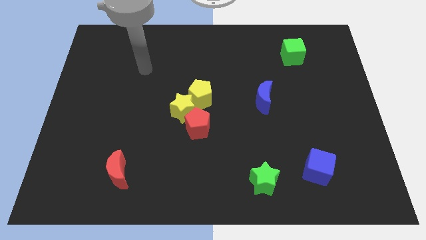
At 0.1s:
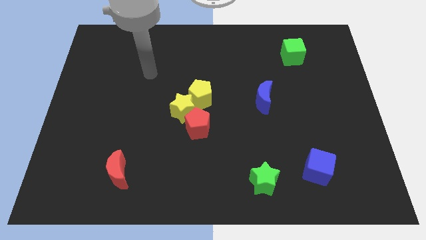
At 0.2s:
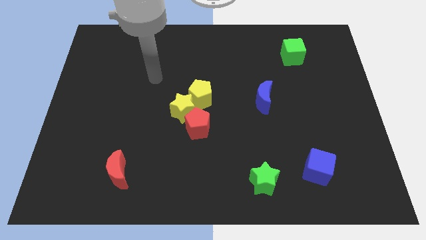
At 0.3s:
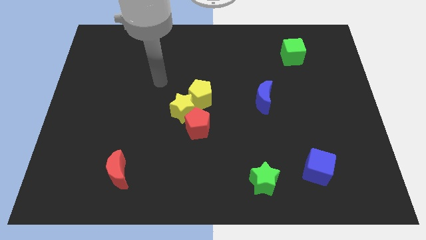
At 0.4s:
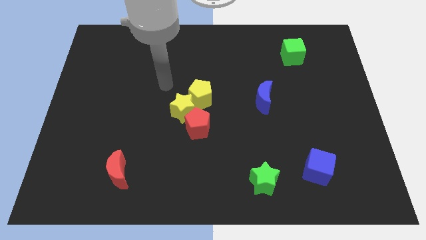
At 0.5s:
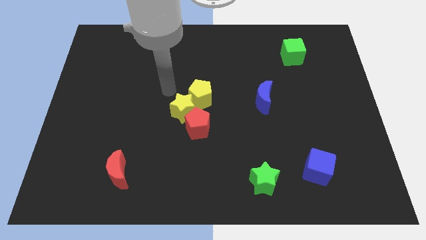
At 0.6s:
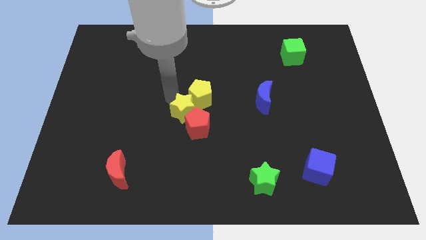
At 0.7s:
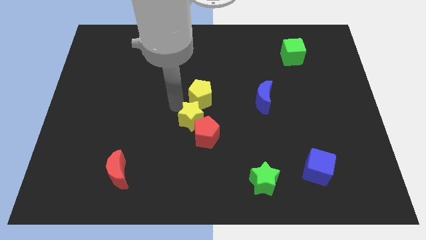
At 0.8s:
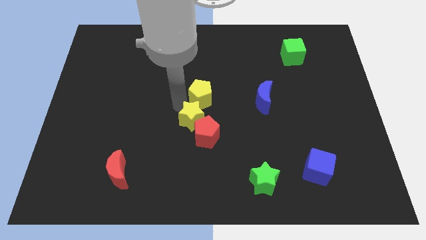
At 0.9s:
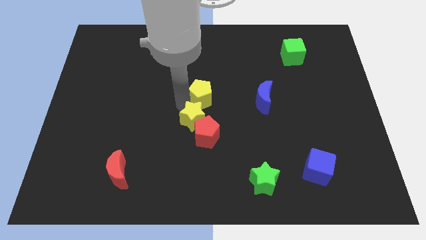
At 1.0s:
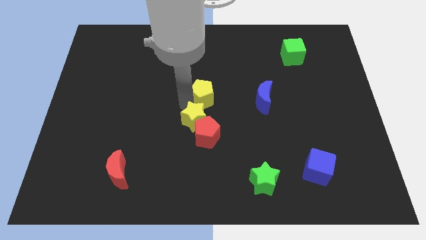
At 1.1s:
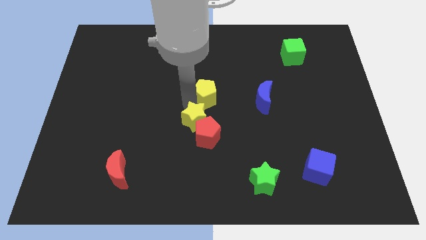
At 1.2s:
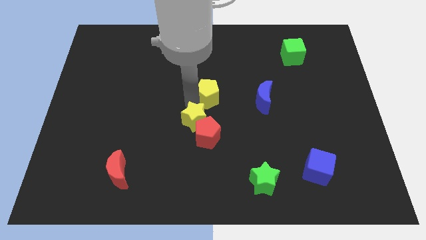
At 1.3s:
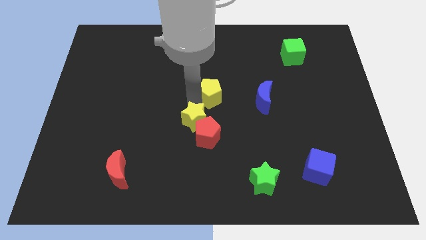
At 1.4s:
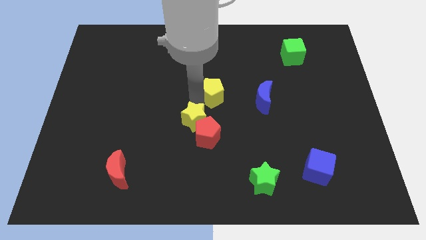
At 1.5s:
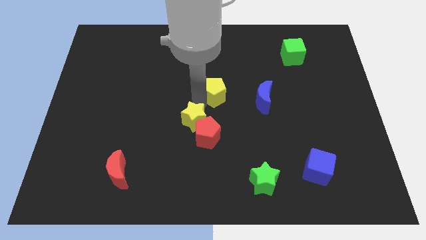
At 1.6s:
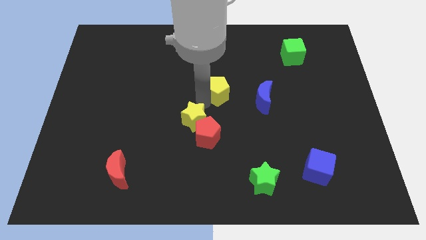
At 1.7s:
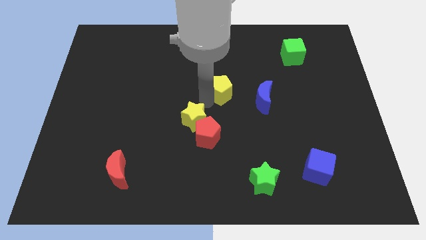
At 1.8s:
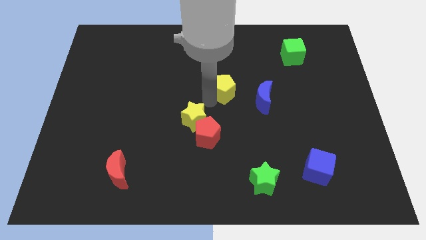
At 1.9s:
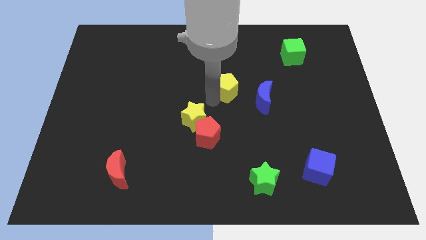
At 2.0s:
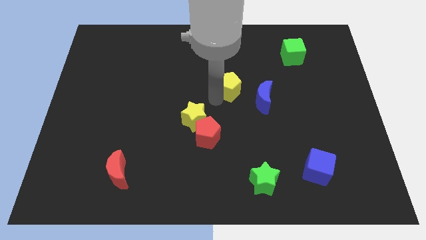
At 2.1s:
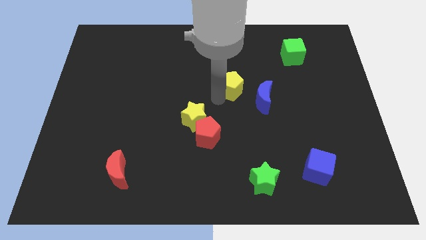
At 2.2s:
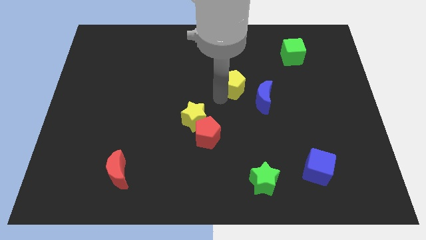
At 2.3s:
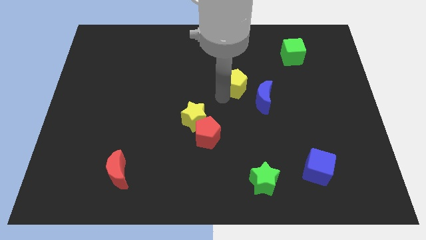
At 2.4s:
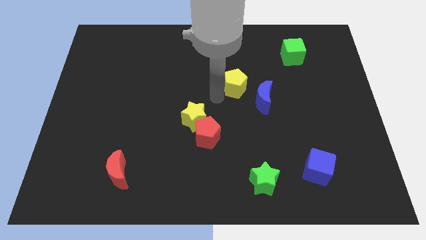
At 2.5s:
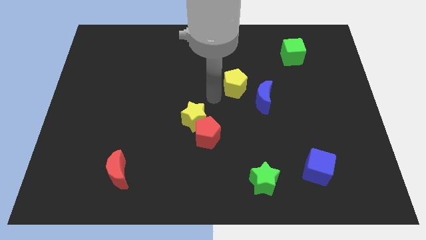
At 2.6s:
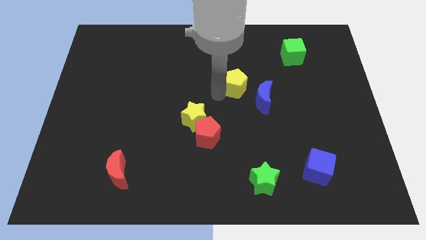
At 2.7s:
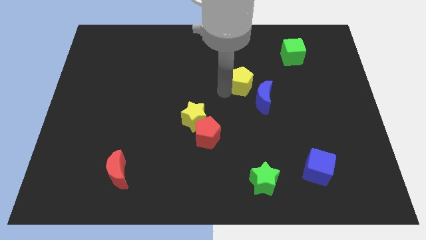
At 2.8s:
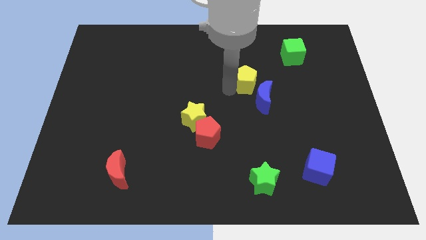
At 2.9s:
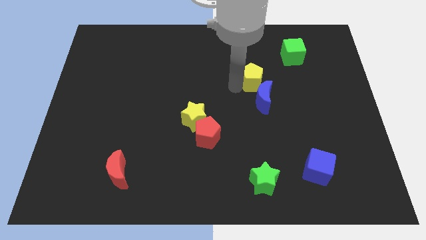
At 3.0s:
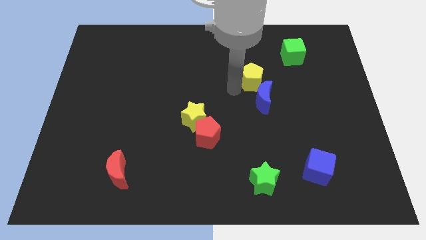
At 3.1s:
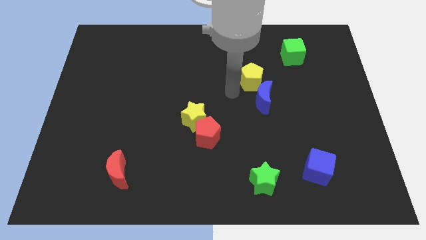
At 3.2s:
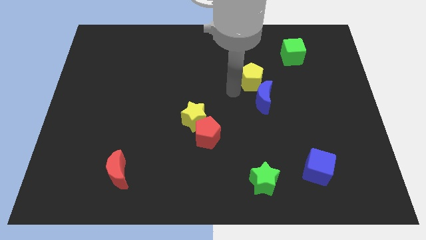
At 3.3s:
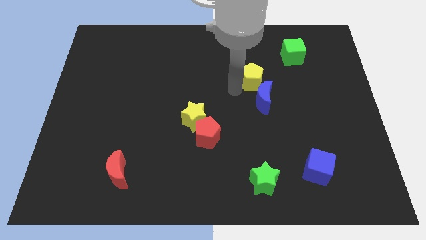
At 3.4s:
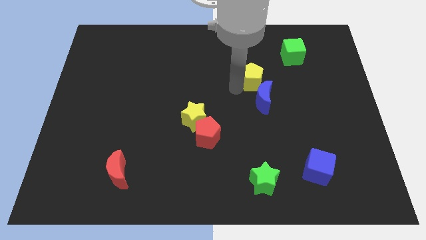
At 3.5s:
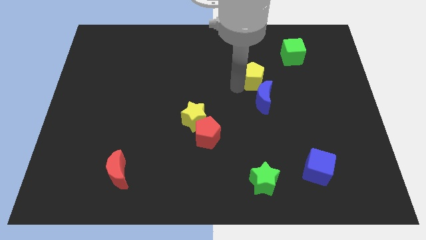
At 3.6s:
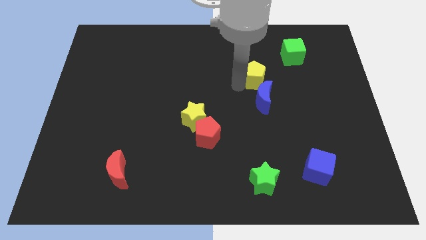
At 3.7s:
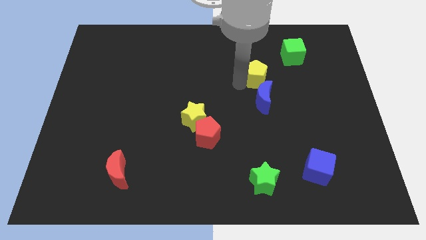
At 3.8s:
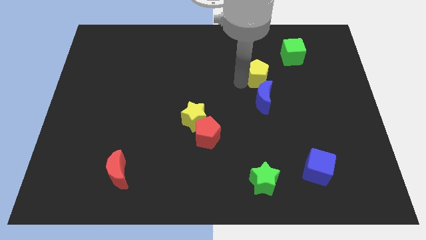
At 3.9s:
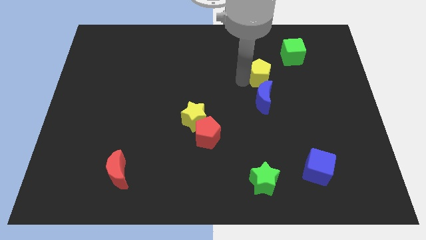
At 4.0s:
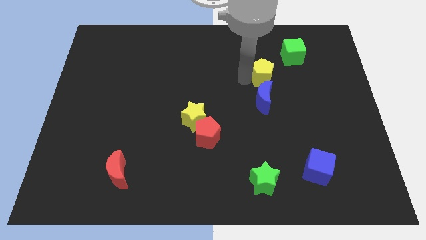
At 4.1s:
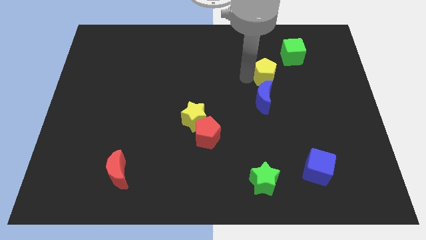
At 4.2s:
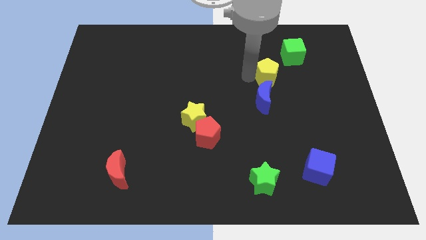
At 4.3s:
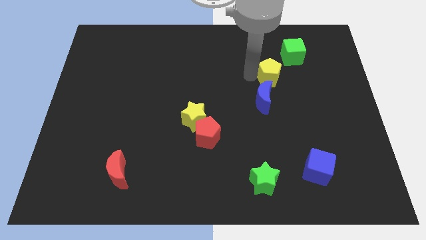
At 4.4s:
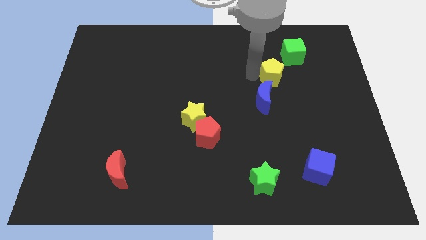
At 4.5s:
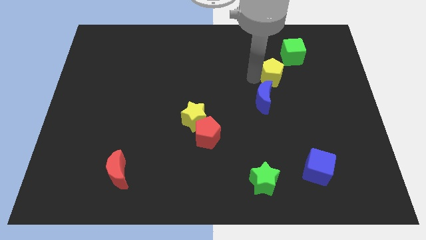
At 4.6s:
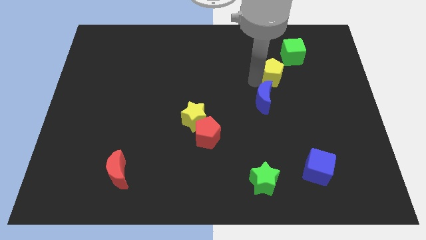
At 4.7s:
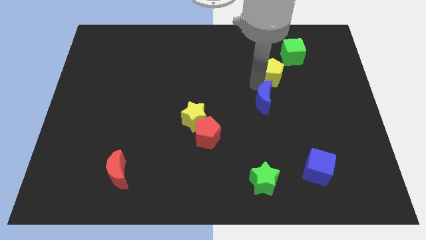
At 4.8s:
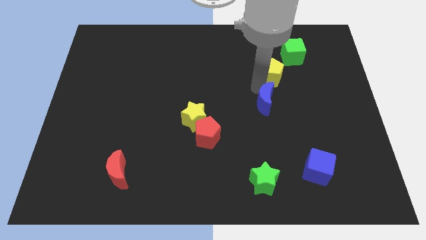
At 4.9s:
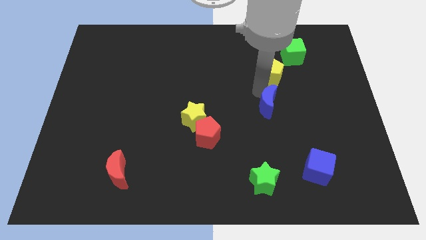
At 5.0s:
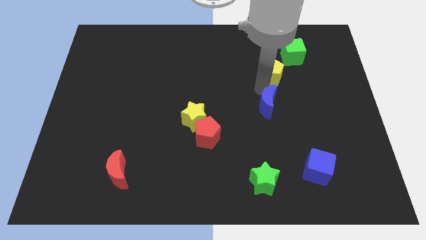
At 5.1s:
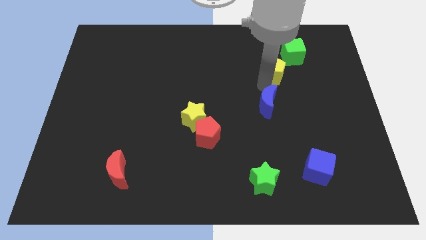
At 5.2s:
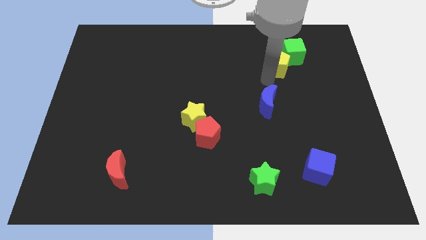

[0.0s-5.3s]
push the yellow pentagon next to the green cube

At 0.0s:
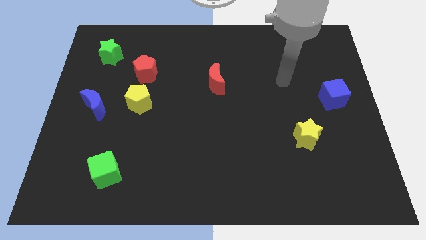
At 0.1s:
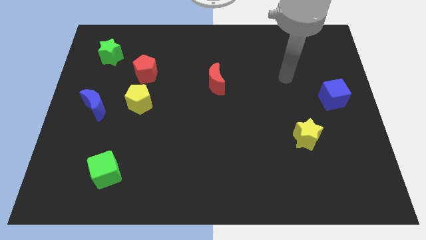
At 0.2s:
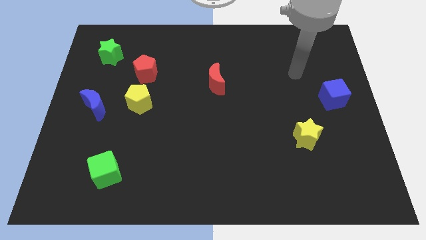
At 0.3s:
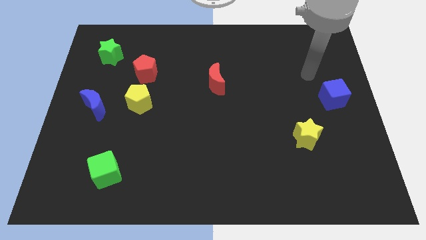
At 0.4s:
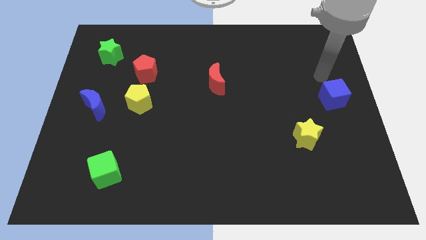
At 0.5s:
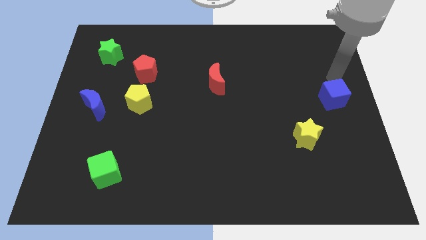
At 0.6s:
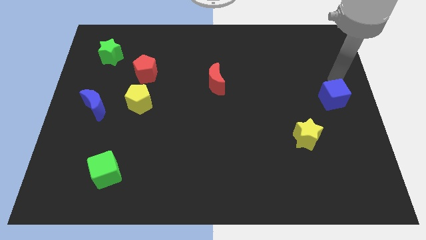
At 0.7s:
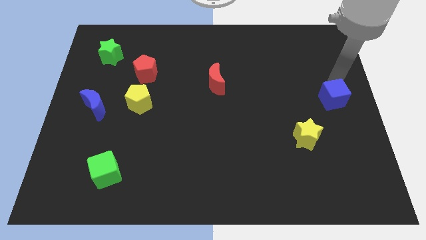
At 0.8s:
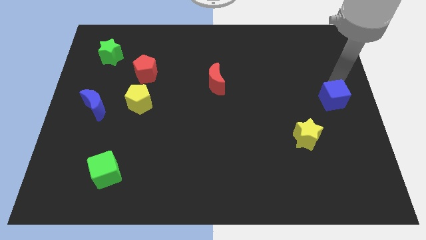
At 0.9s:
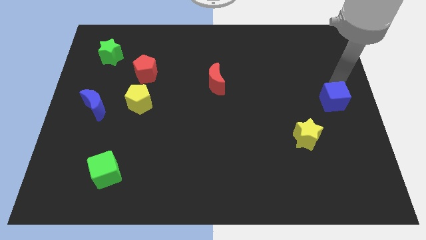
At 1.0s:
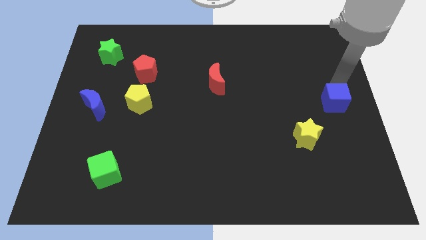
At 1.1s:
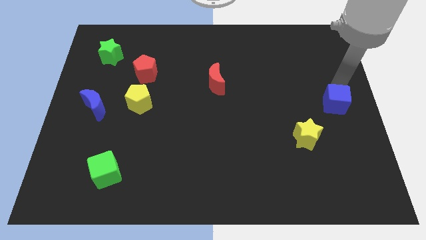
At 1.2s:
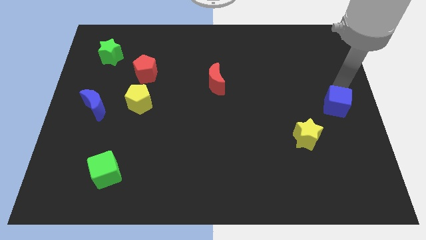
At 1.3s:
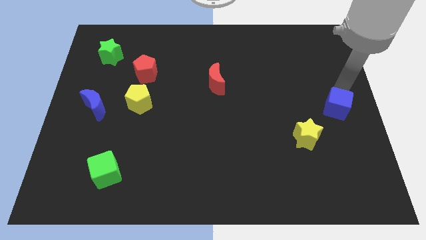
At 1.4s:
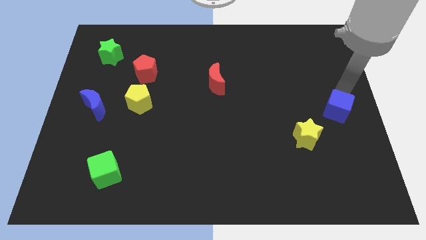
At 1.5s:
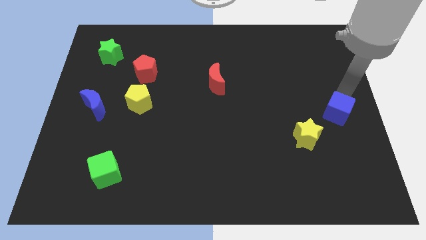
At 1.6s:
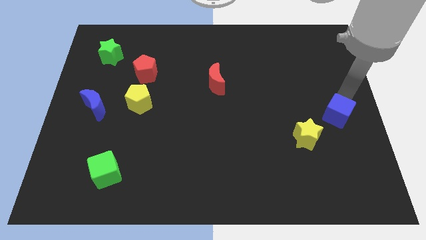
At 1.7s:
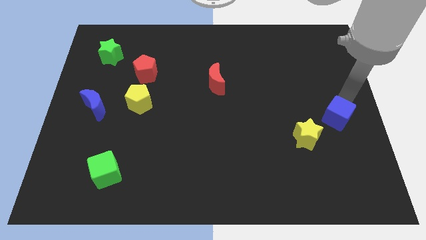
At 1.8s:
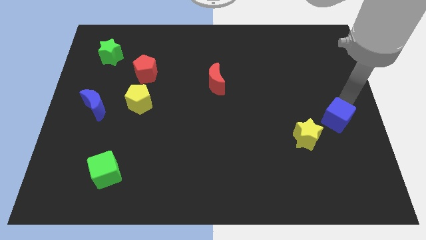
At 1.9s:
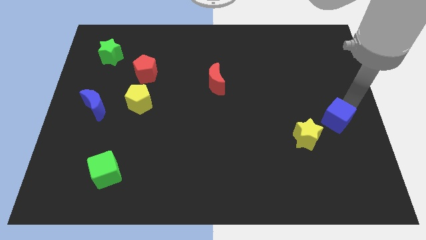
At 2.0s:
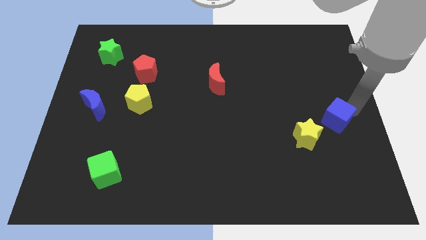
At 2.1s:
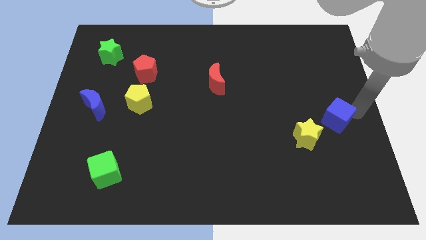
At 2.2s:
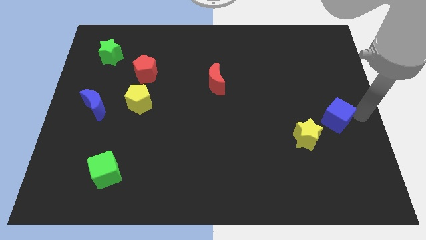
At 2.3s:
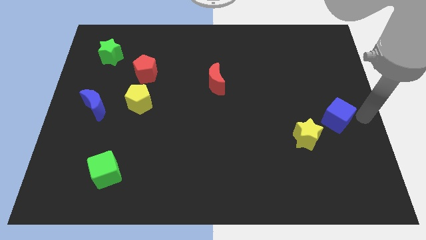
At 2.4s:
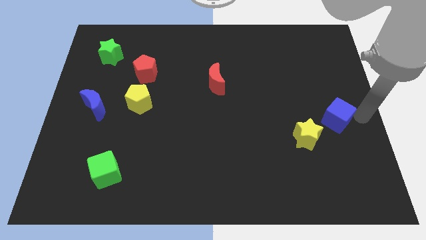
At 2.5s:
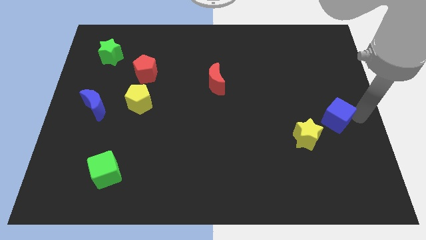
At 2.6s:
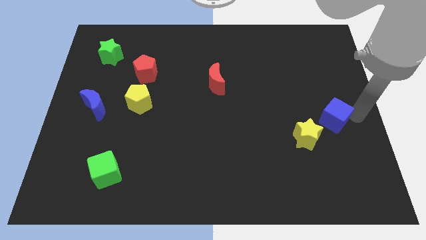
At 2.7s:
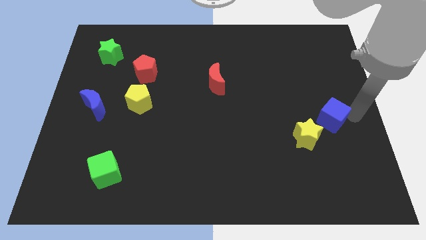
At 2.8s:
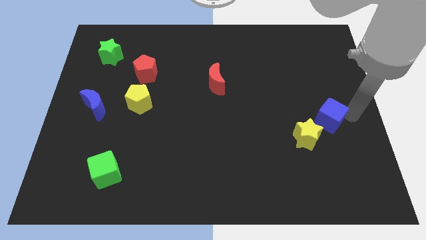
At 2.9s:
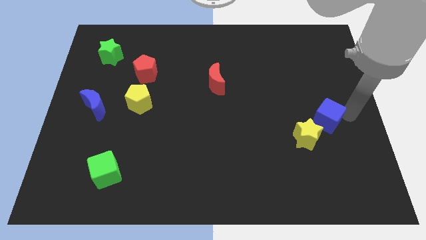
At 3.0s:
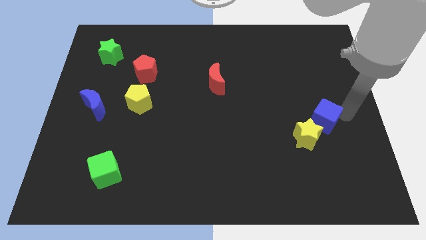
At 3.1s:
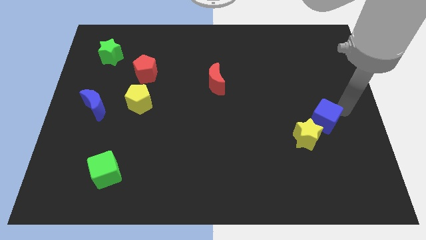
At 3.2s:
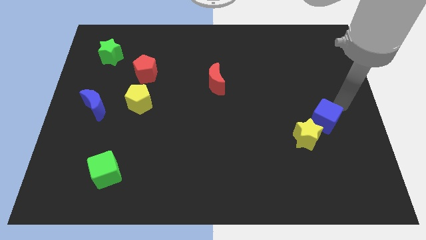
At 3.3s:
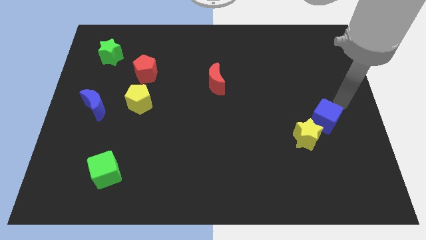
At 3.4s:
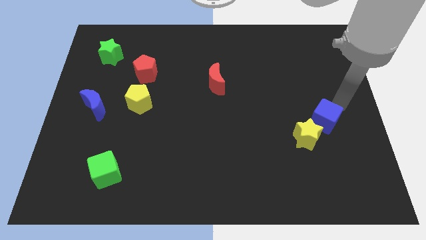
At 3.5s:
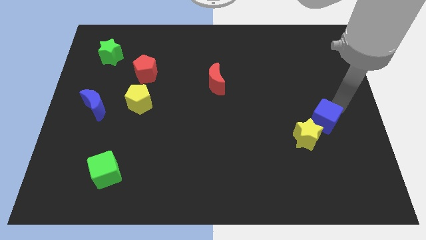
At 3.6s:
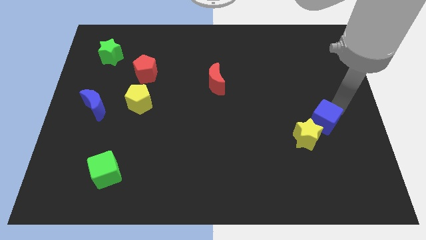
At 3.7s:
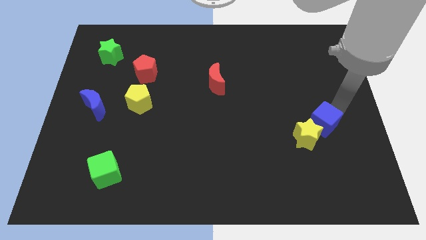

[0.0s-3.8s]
slide the blue cube next to the yellow star
